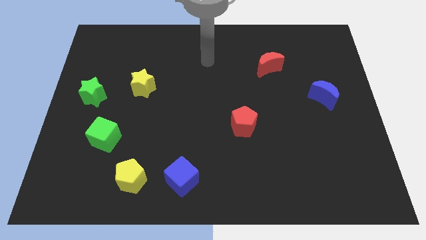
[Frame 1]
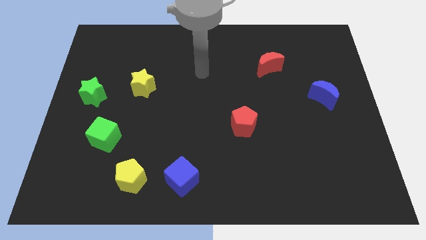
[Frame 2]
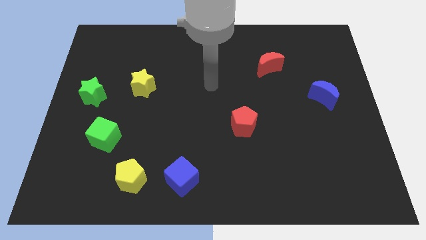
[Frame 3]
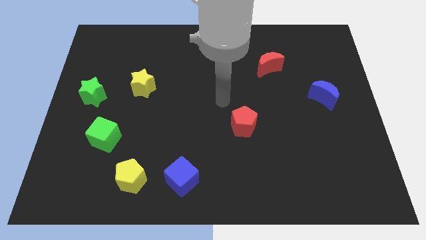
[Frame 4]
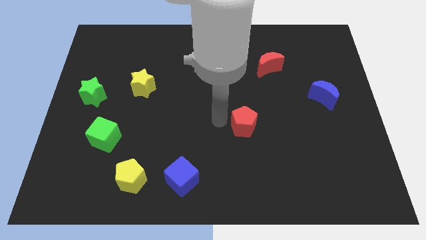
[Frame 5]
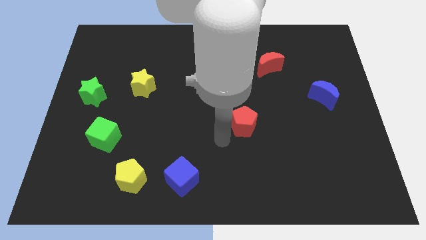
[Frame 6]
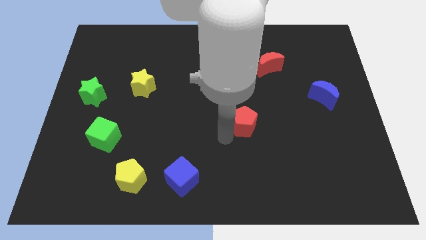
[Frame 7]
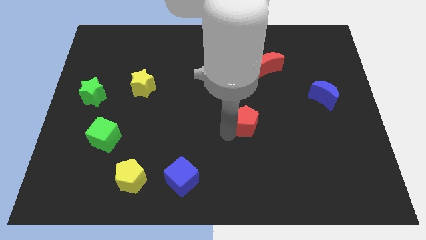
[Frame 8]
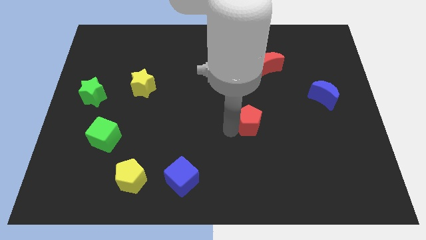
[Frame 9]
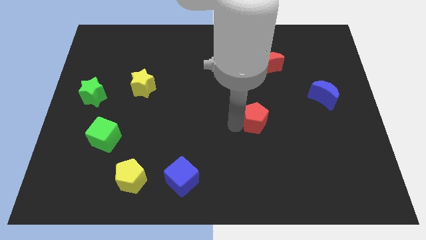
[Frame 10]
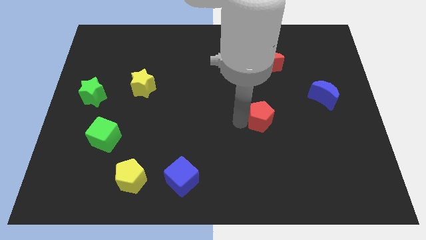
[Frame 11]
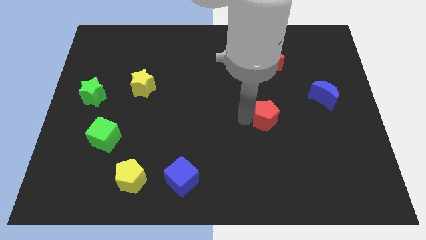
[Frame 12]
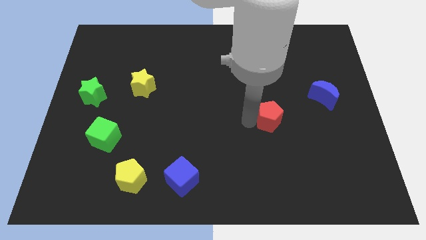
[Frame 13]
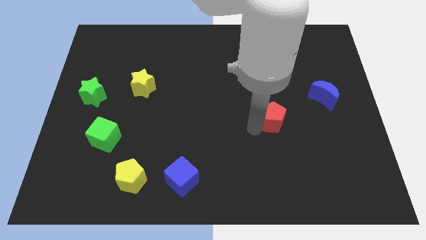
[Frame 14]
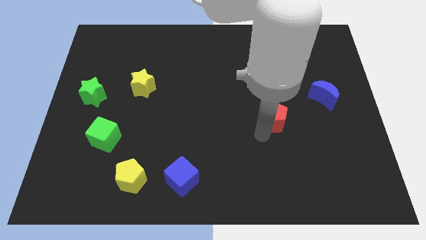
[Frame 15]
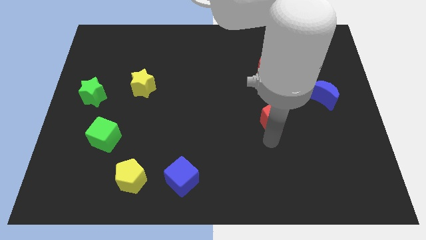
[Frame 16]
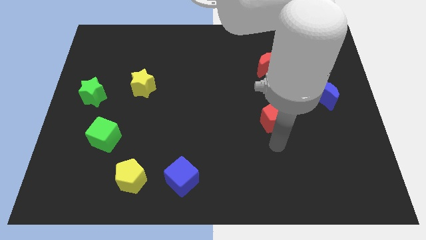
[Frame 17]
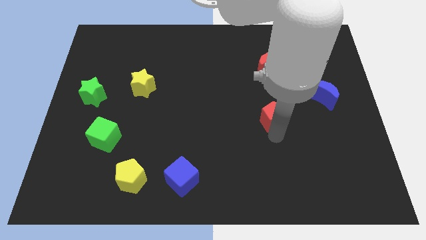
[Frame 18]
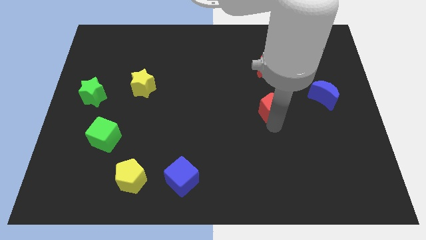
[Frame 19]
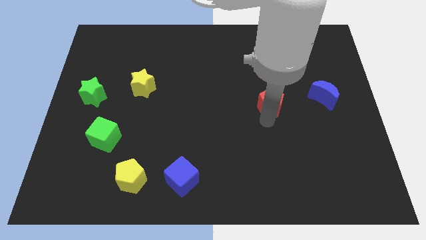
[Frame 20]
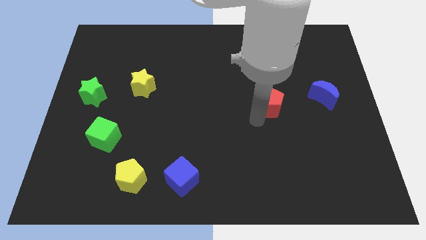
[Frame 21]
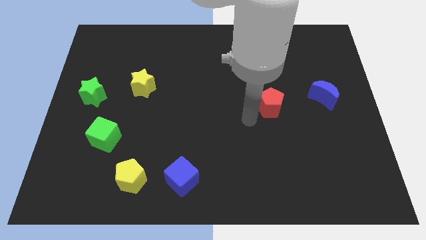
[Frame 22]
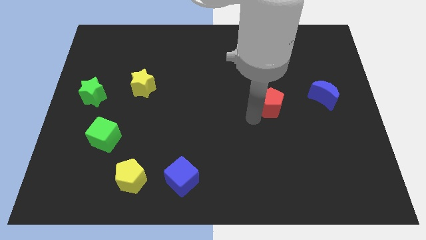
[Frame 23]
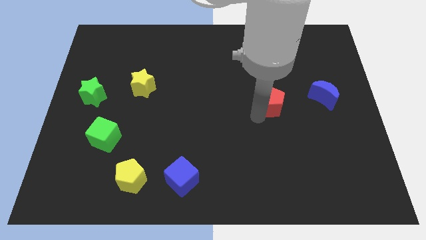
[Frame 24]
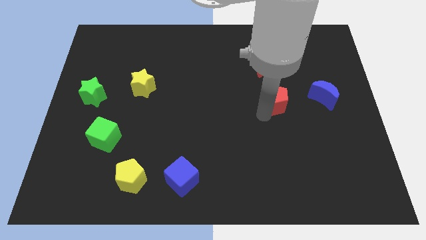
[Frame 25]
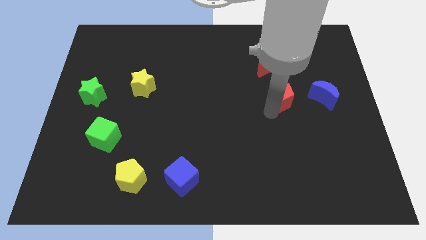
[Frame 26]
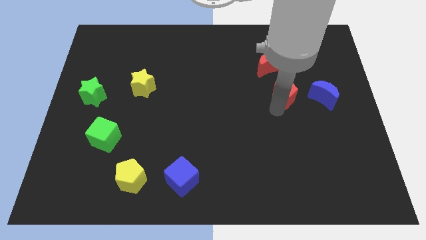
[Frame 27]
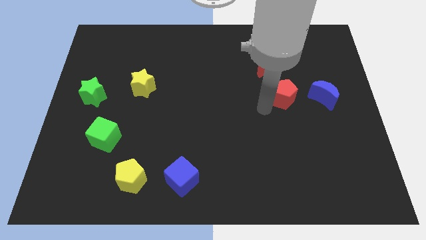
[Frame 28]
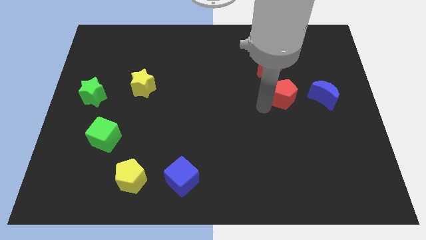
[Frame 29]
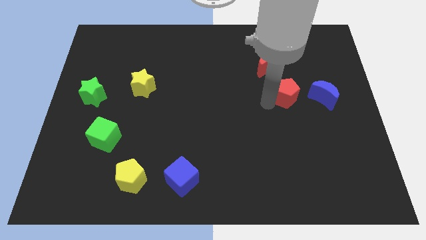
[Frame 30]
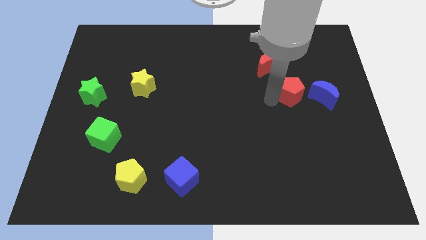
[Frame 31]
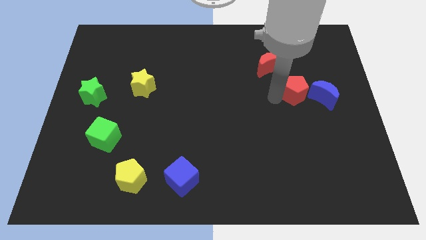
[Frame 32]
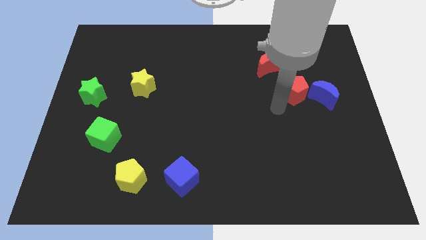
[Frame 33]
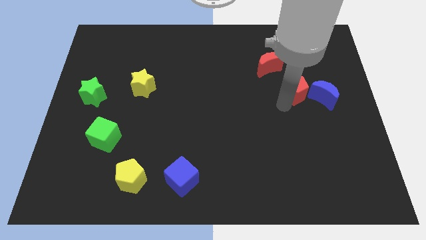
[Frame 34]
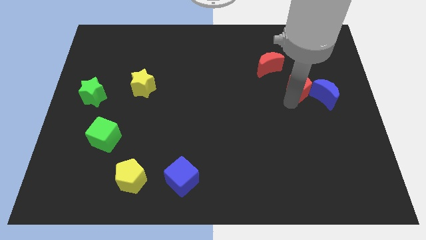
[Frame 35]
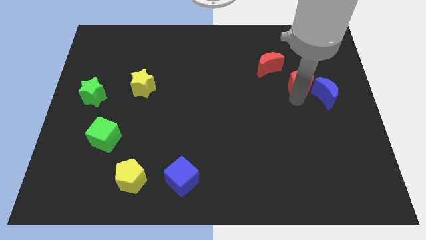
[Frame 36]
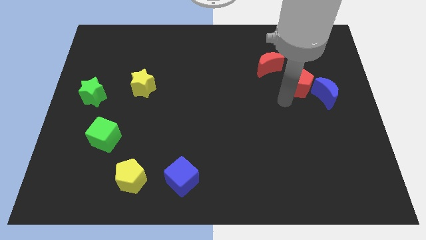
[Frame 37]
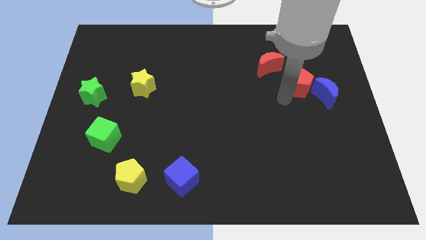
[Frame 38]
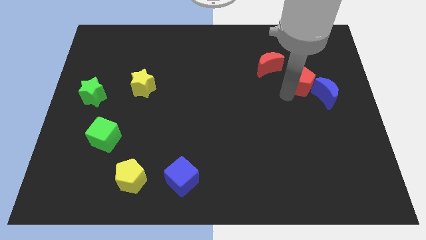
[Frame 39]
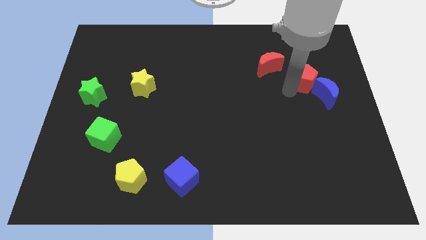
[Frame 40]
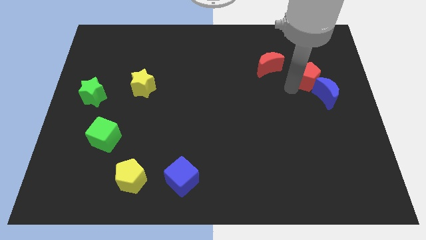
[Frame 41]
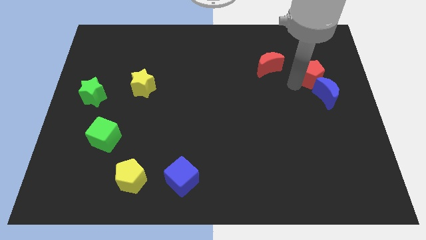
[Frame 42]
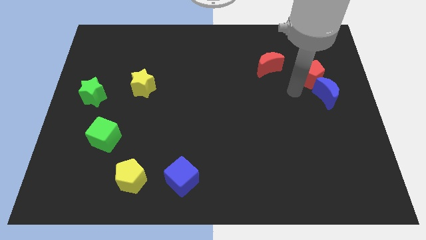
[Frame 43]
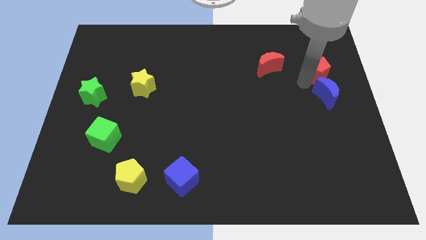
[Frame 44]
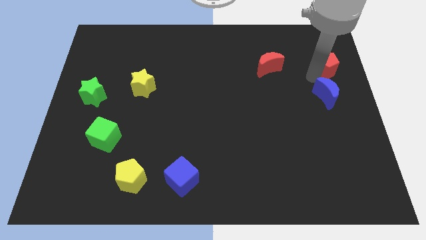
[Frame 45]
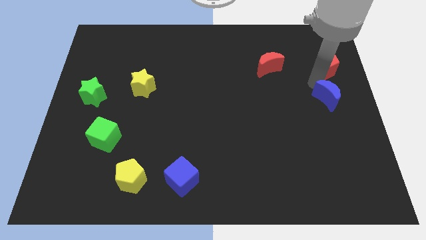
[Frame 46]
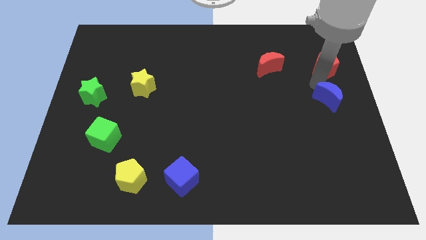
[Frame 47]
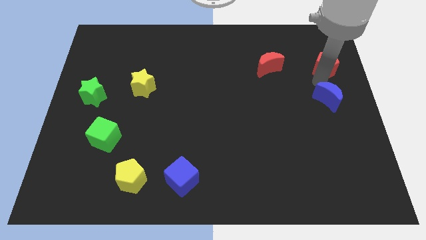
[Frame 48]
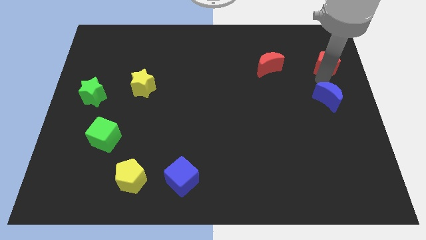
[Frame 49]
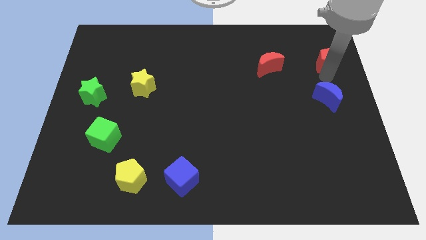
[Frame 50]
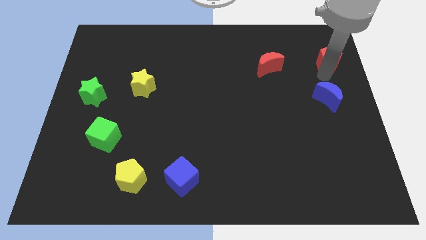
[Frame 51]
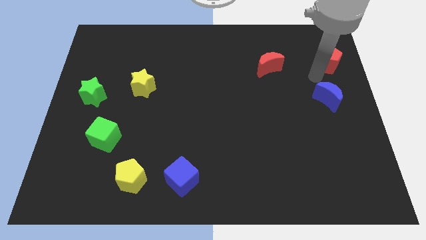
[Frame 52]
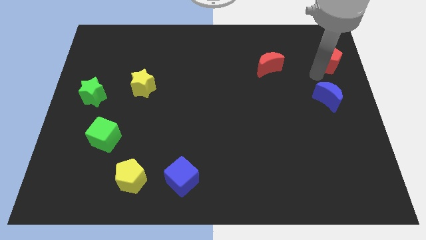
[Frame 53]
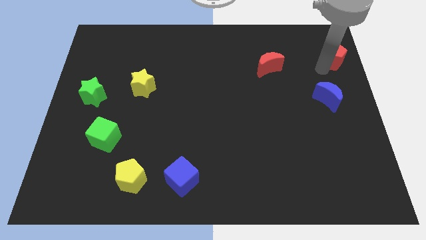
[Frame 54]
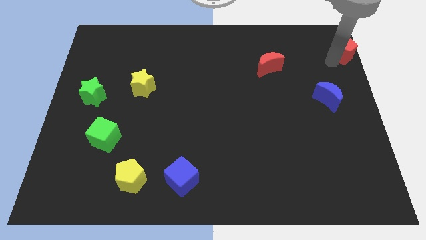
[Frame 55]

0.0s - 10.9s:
move the red pentagon to the top right of the board

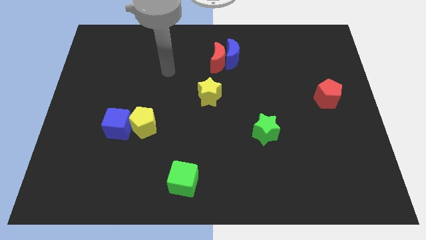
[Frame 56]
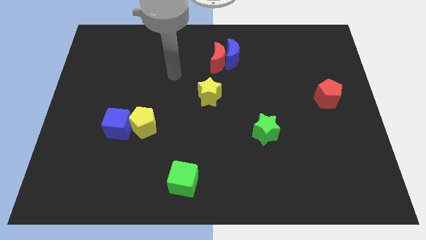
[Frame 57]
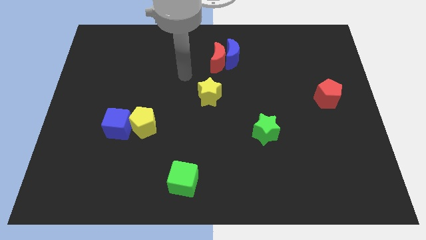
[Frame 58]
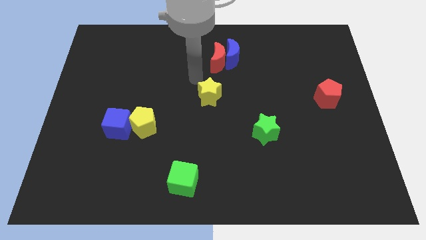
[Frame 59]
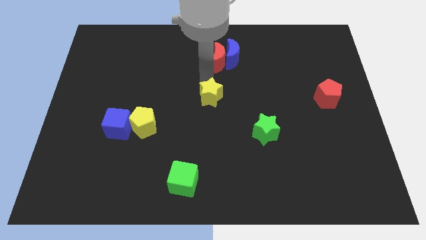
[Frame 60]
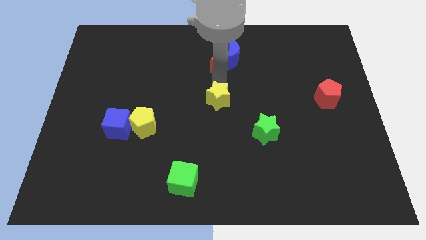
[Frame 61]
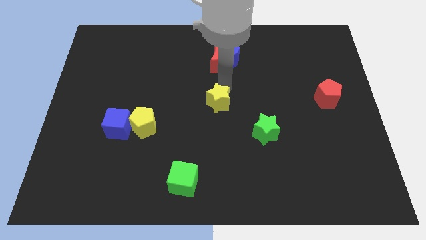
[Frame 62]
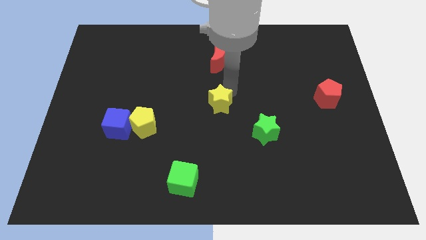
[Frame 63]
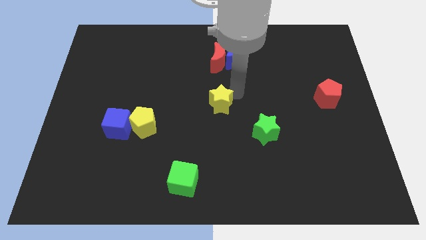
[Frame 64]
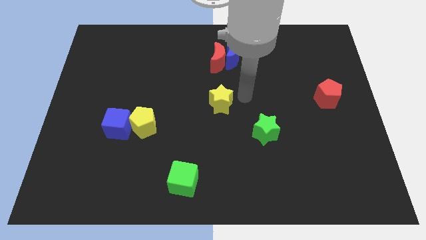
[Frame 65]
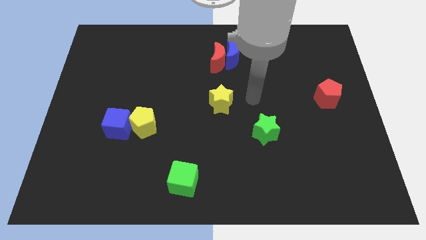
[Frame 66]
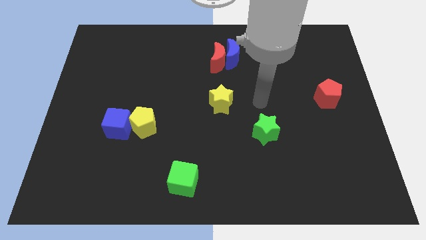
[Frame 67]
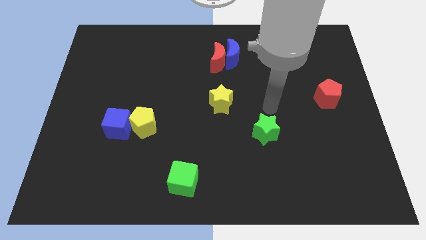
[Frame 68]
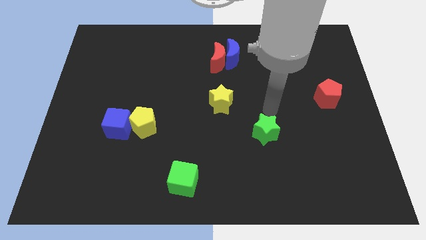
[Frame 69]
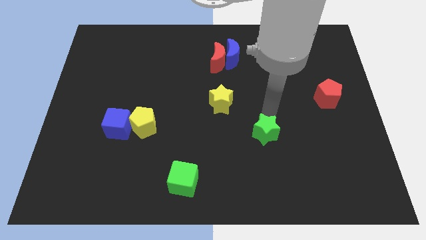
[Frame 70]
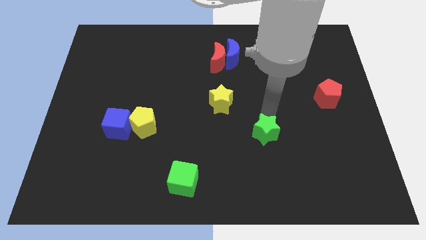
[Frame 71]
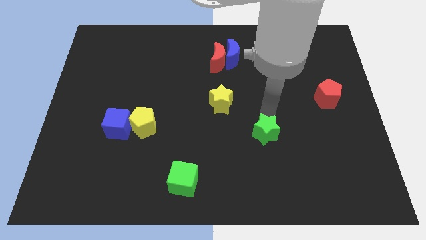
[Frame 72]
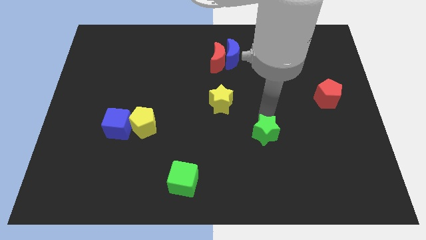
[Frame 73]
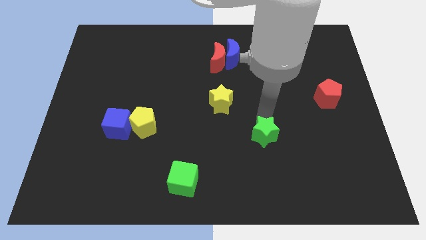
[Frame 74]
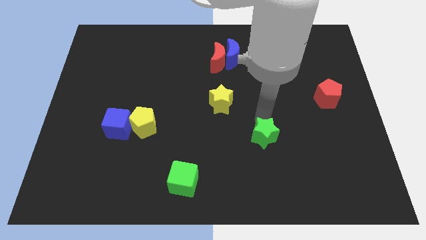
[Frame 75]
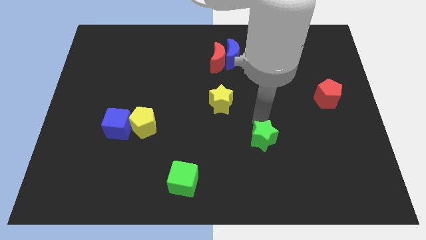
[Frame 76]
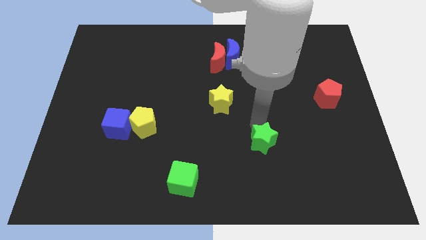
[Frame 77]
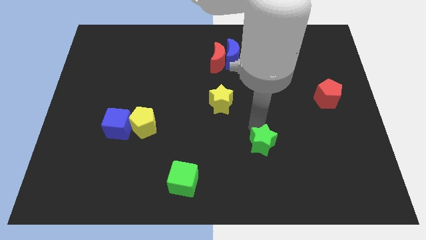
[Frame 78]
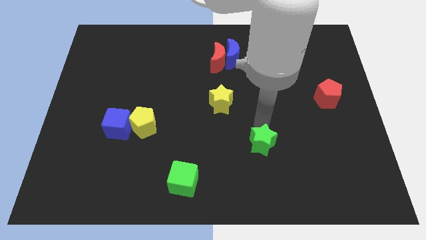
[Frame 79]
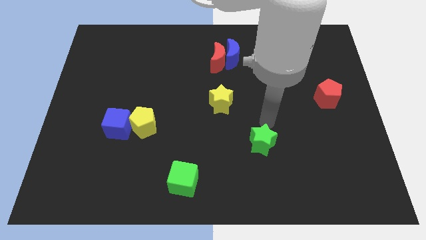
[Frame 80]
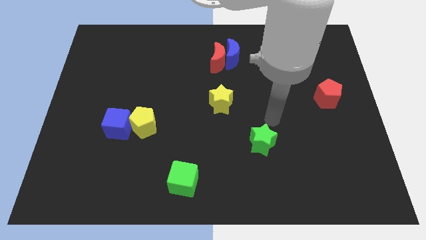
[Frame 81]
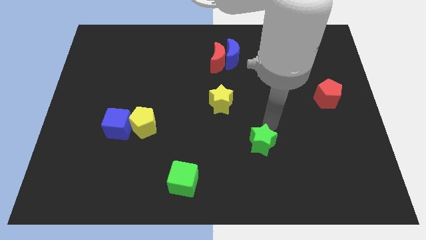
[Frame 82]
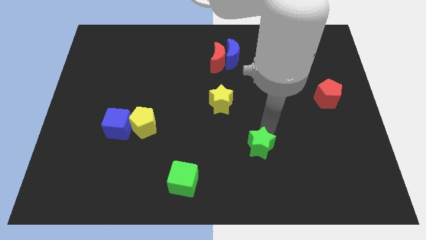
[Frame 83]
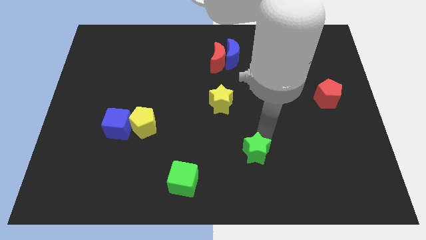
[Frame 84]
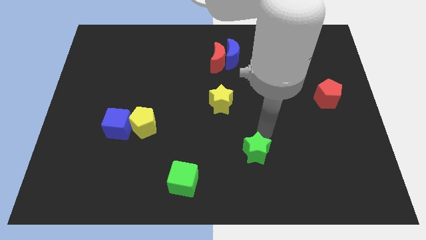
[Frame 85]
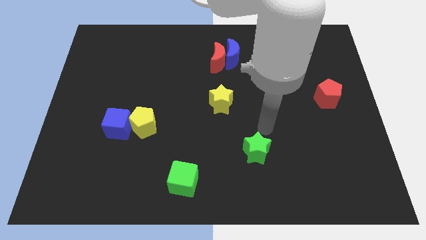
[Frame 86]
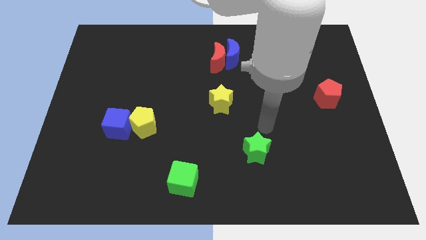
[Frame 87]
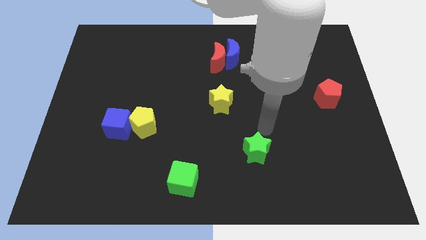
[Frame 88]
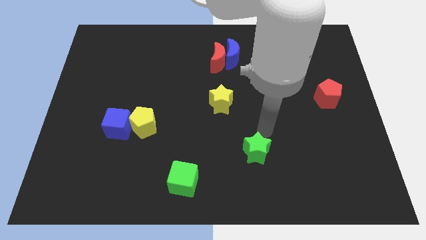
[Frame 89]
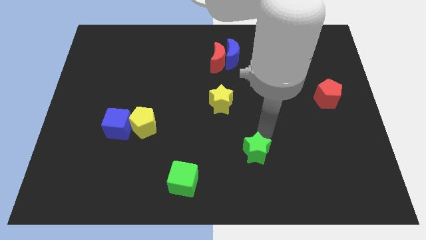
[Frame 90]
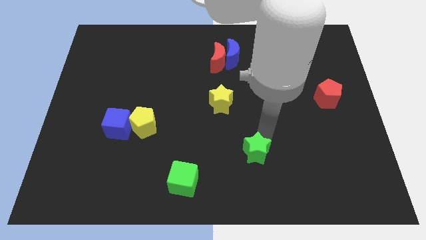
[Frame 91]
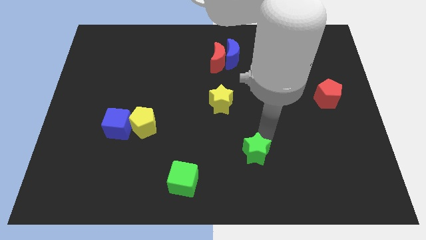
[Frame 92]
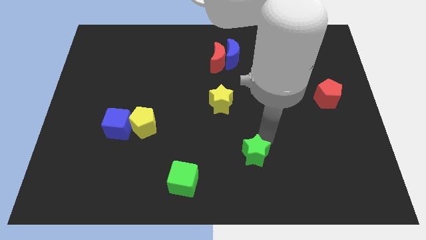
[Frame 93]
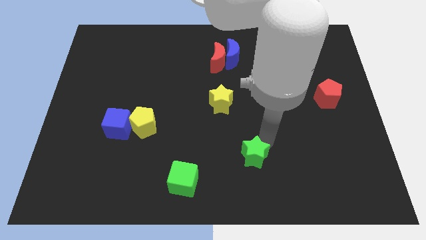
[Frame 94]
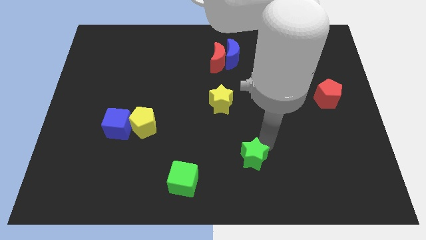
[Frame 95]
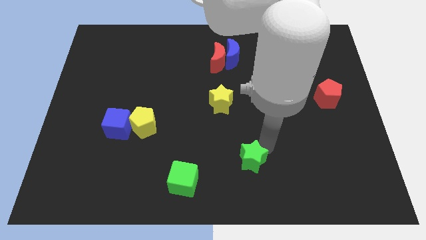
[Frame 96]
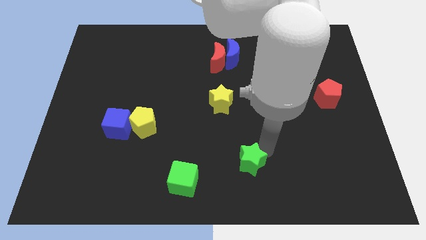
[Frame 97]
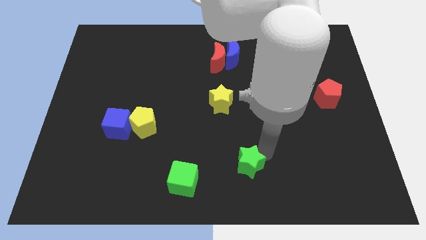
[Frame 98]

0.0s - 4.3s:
slide the green star to the bottom side
